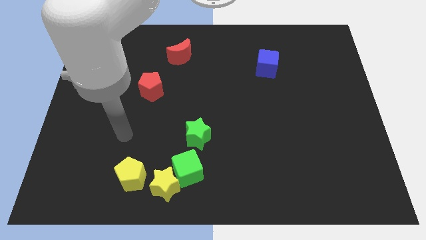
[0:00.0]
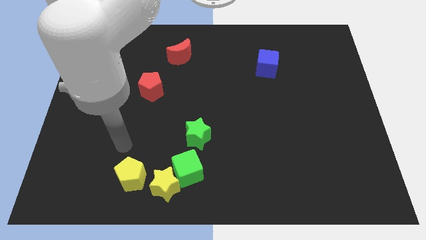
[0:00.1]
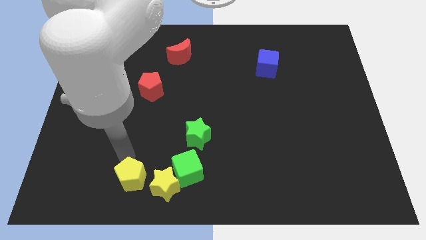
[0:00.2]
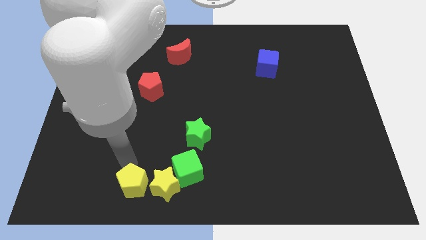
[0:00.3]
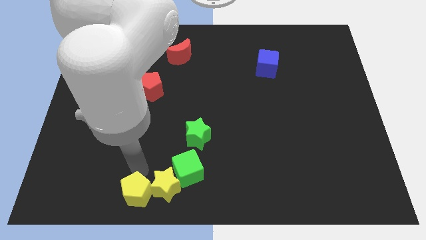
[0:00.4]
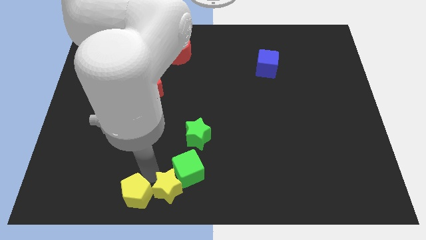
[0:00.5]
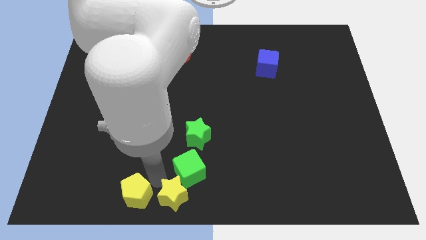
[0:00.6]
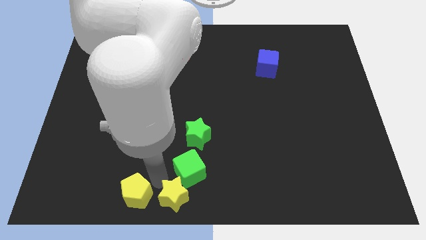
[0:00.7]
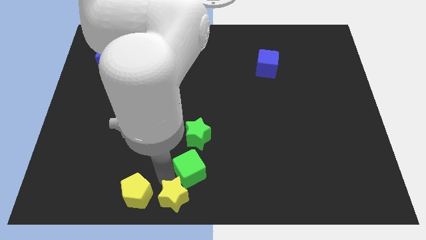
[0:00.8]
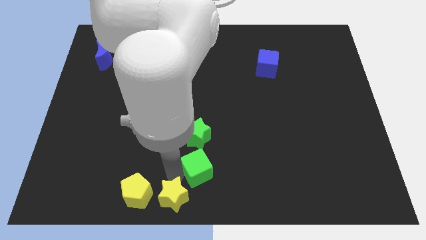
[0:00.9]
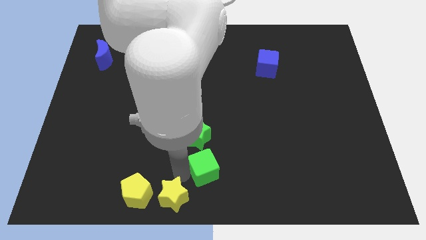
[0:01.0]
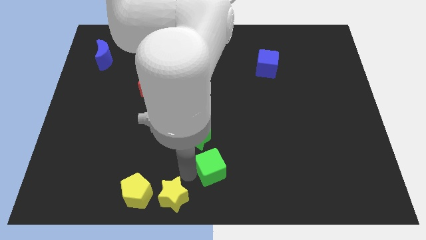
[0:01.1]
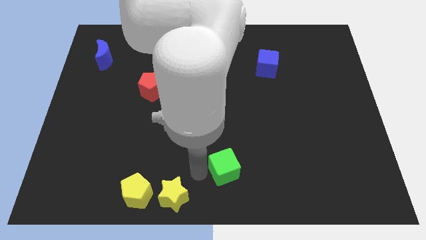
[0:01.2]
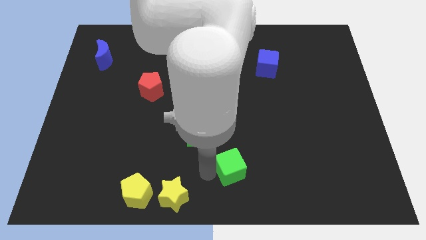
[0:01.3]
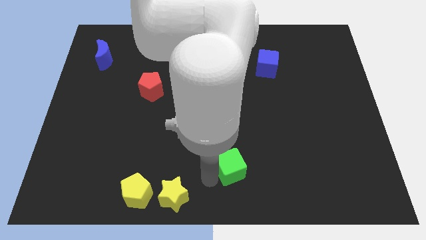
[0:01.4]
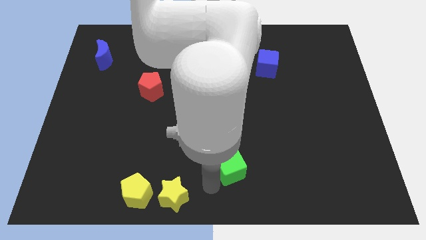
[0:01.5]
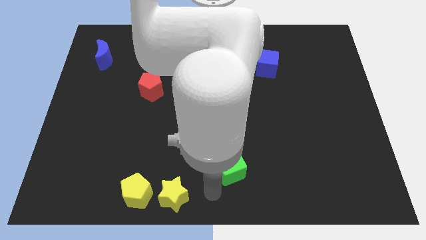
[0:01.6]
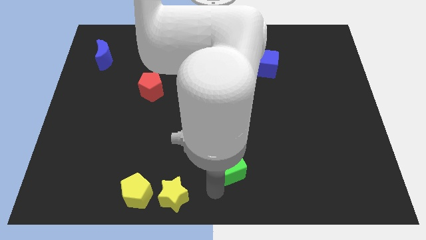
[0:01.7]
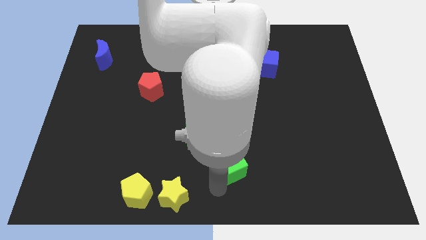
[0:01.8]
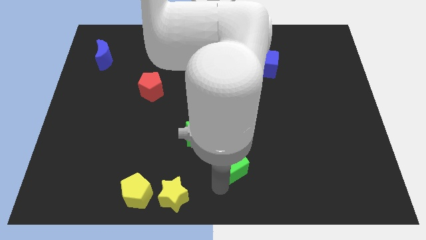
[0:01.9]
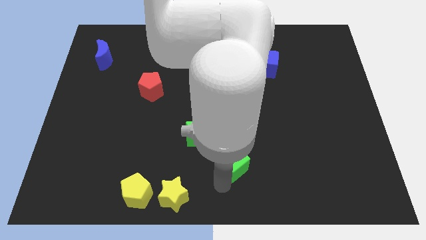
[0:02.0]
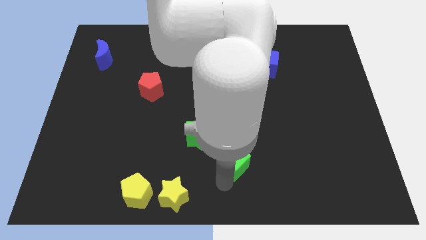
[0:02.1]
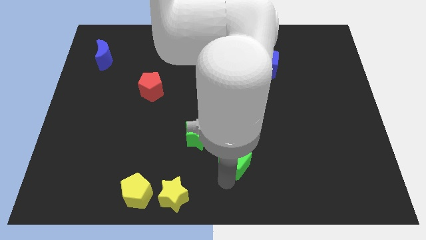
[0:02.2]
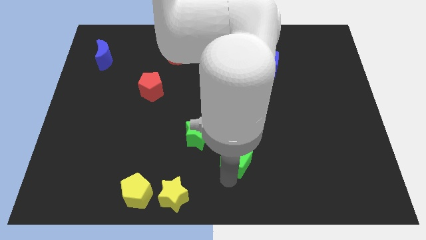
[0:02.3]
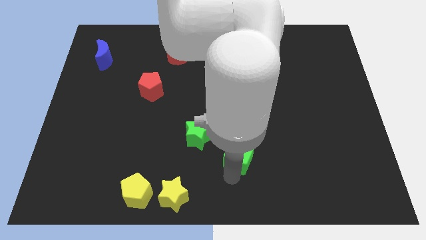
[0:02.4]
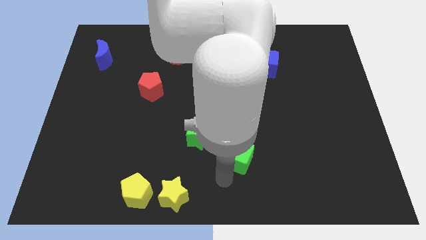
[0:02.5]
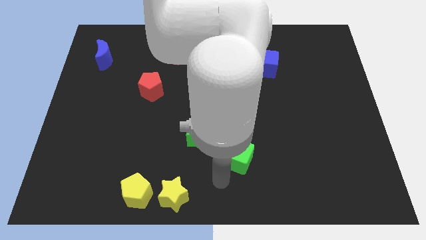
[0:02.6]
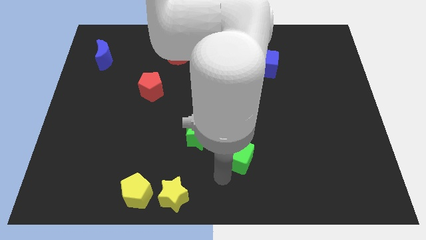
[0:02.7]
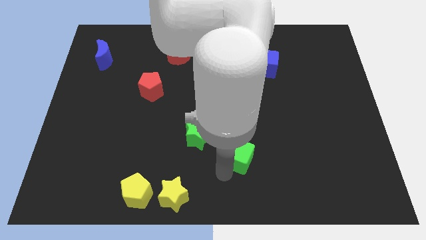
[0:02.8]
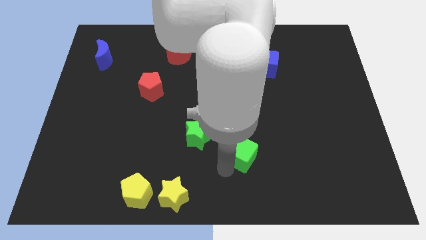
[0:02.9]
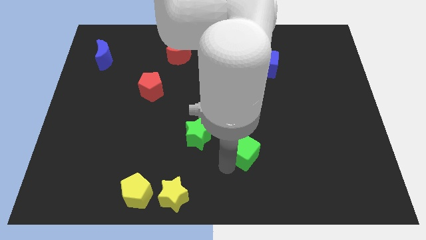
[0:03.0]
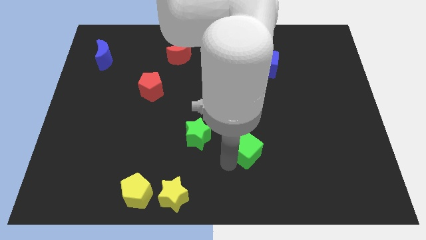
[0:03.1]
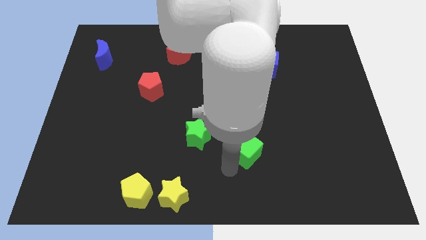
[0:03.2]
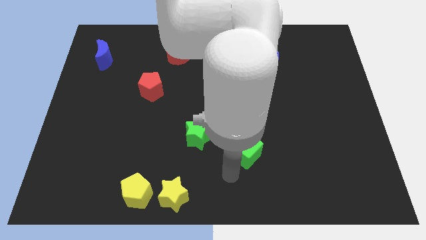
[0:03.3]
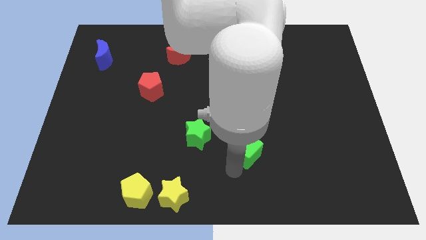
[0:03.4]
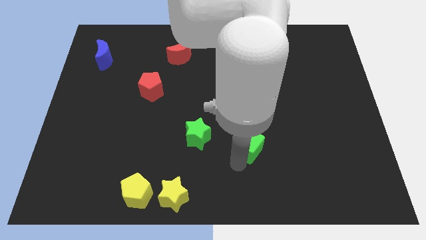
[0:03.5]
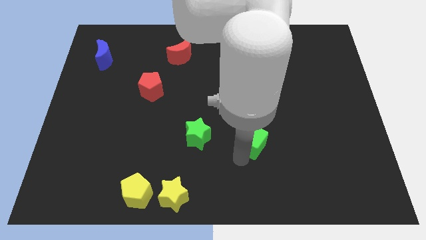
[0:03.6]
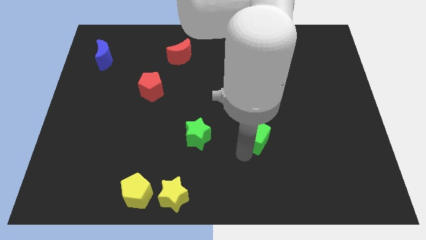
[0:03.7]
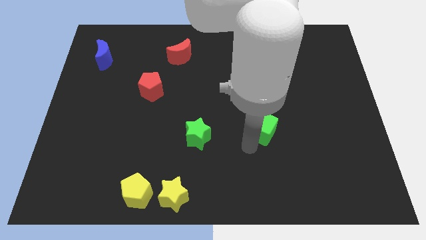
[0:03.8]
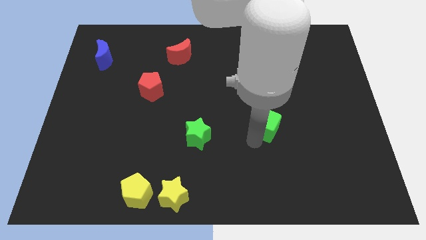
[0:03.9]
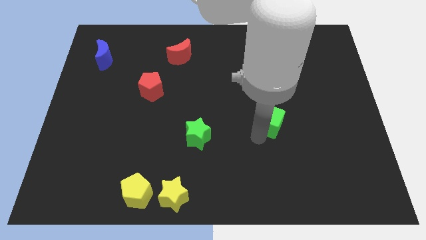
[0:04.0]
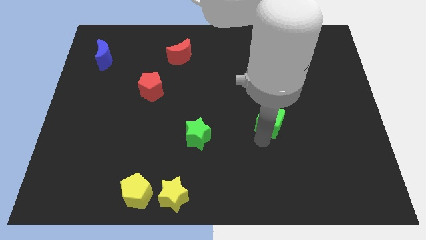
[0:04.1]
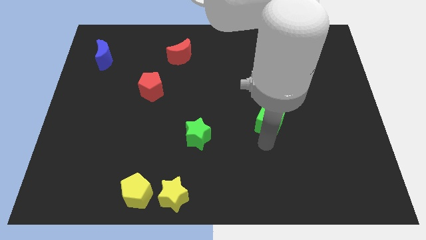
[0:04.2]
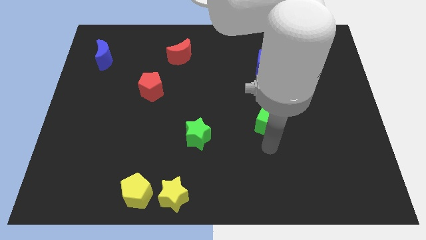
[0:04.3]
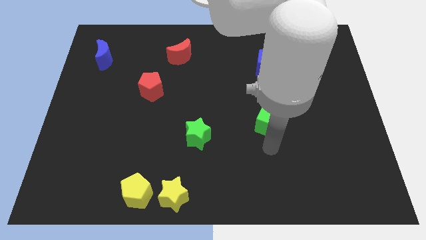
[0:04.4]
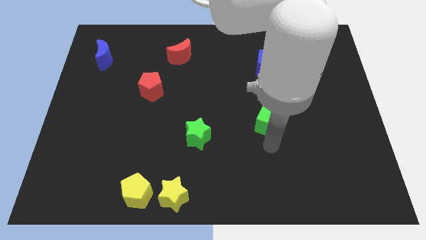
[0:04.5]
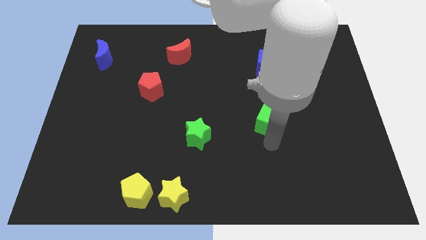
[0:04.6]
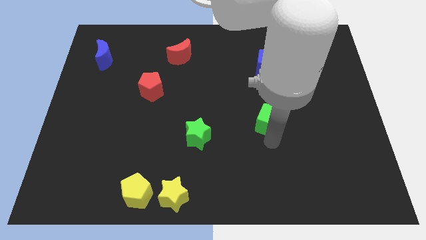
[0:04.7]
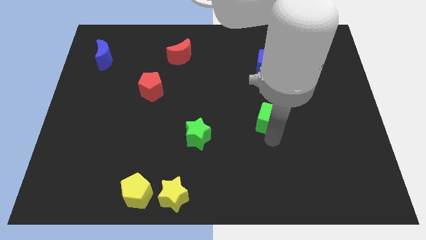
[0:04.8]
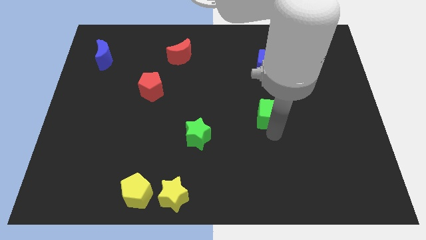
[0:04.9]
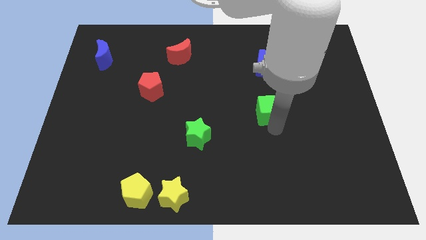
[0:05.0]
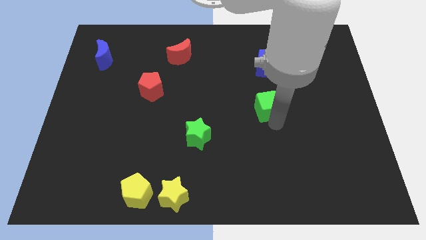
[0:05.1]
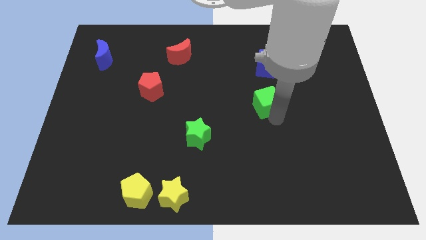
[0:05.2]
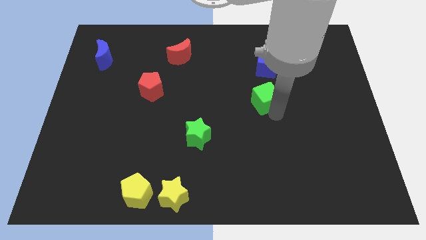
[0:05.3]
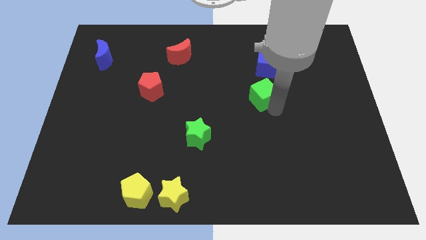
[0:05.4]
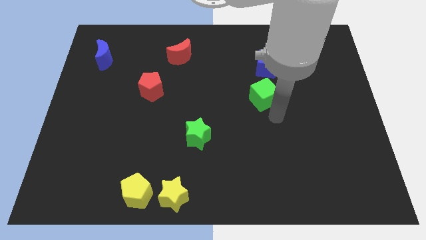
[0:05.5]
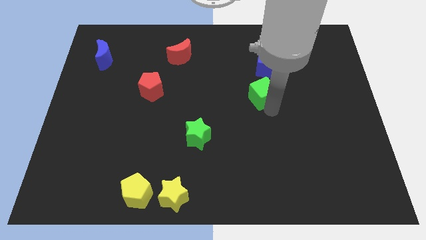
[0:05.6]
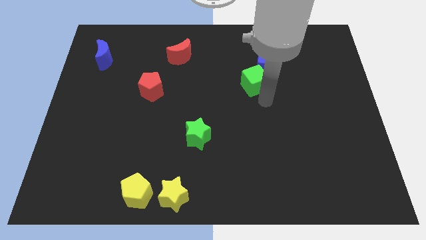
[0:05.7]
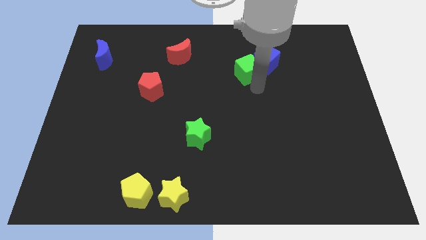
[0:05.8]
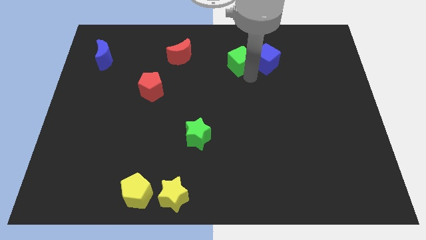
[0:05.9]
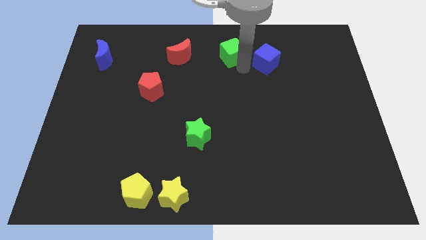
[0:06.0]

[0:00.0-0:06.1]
move the green cube to the top side
